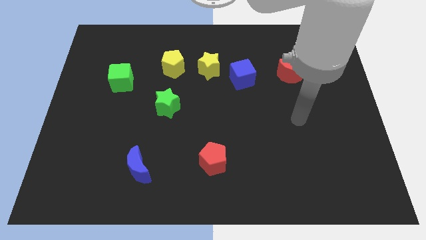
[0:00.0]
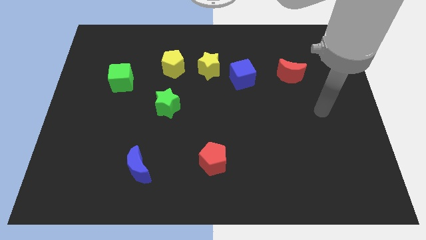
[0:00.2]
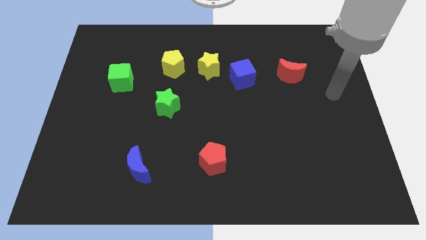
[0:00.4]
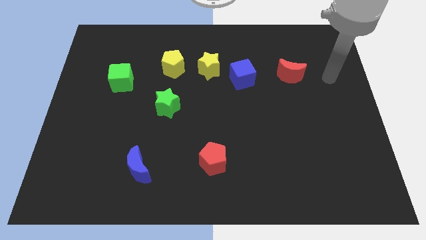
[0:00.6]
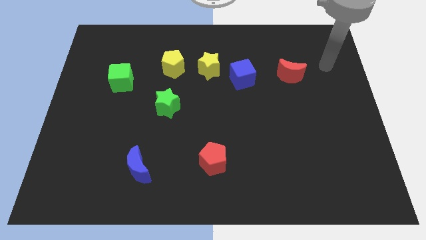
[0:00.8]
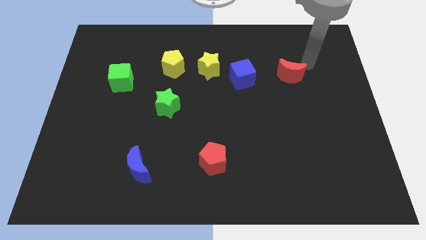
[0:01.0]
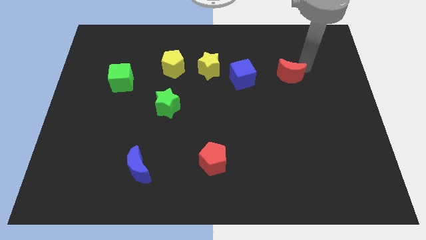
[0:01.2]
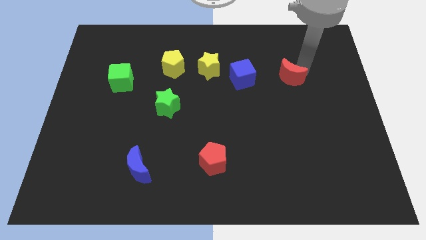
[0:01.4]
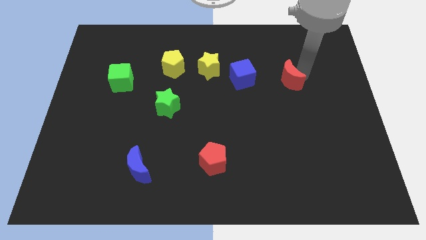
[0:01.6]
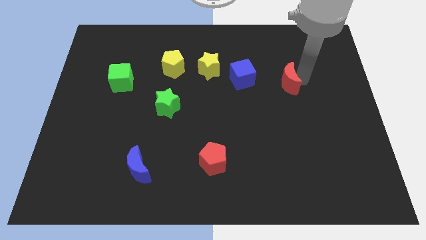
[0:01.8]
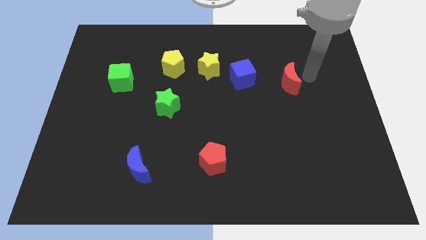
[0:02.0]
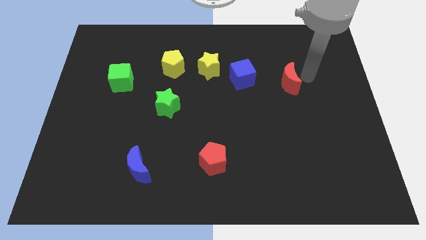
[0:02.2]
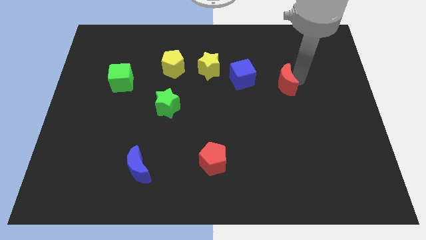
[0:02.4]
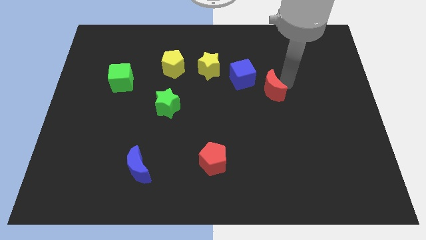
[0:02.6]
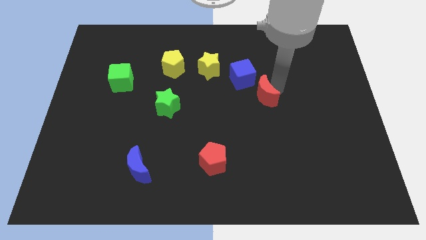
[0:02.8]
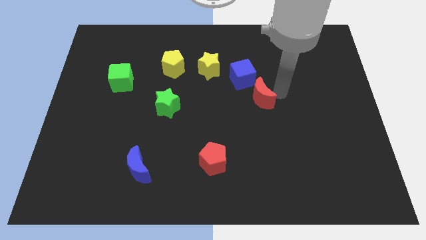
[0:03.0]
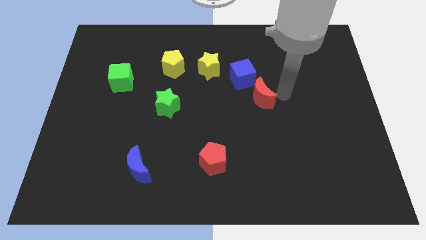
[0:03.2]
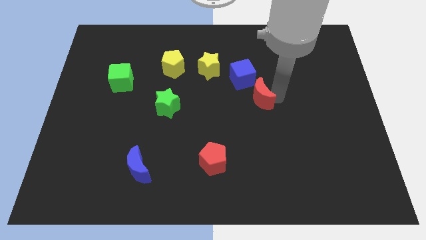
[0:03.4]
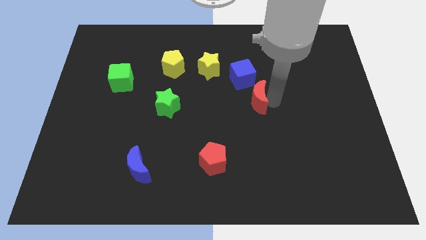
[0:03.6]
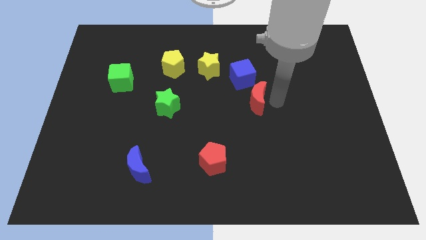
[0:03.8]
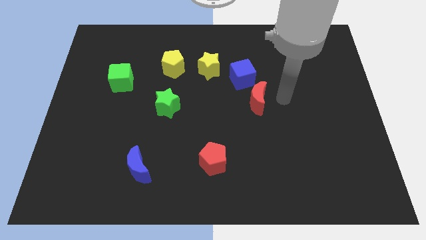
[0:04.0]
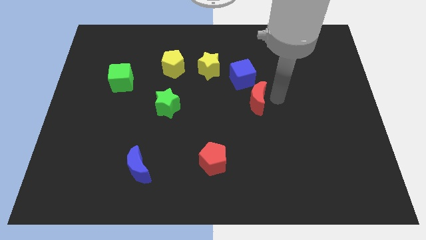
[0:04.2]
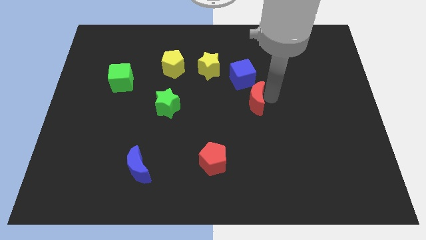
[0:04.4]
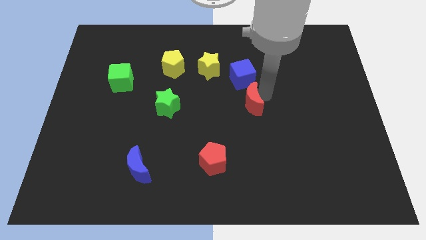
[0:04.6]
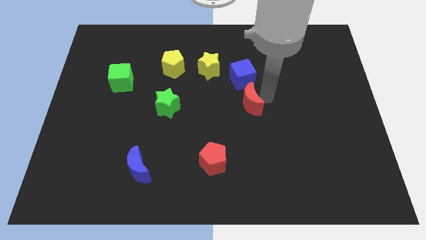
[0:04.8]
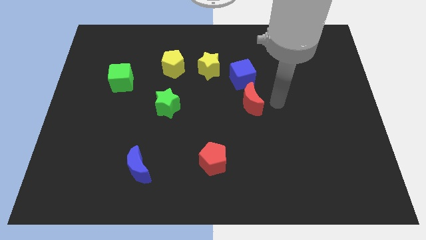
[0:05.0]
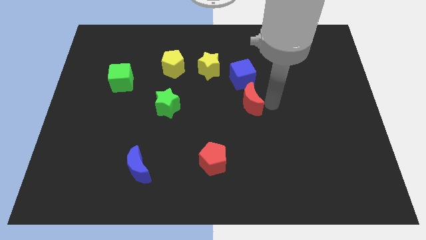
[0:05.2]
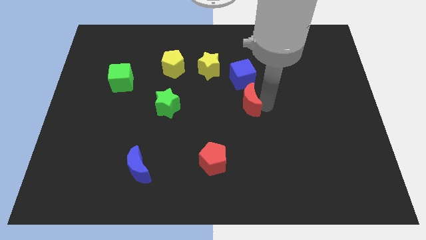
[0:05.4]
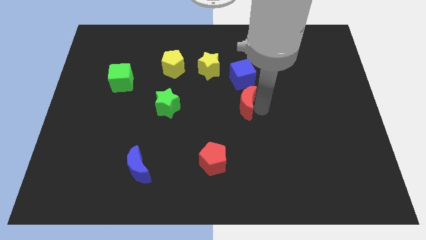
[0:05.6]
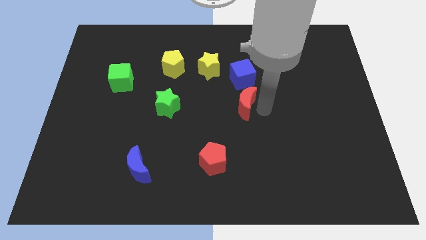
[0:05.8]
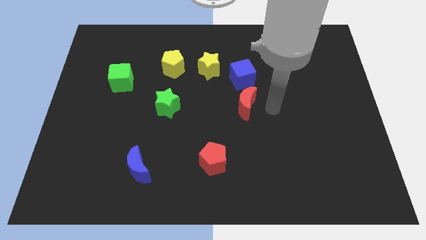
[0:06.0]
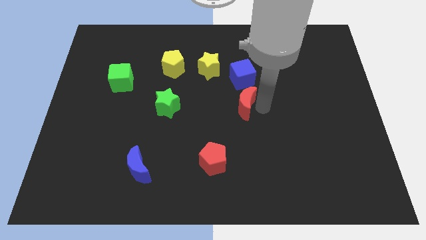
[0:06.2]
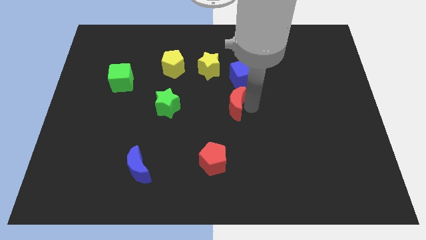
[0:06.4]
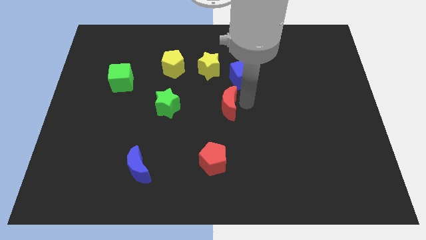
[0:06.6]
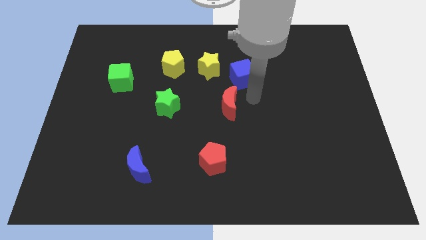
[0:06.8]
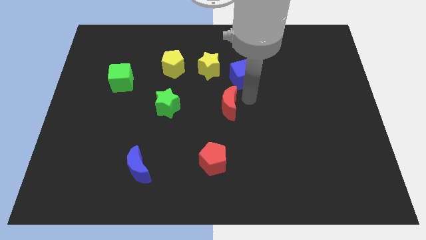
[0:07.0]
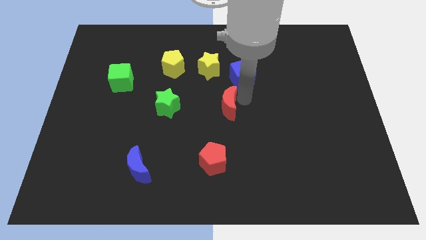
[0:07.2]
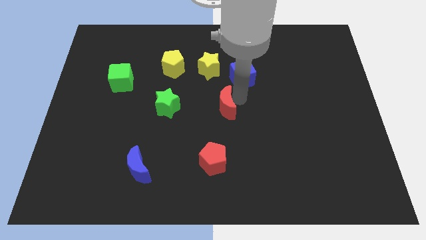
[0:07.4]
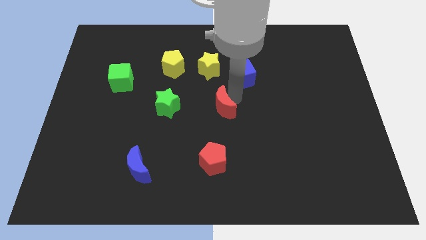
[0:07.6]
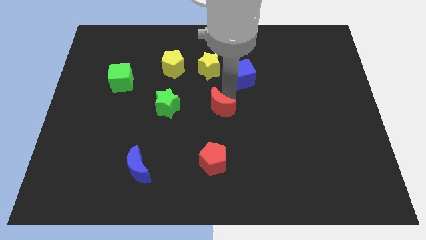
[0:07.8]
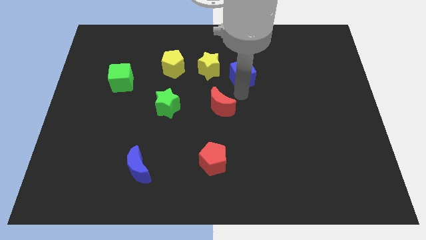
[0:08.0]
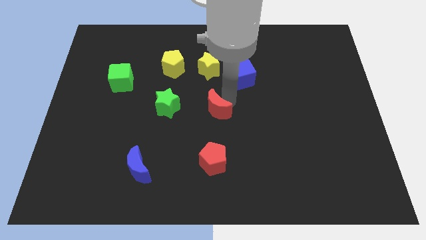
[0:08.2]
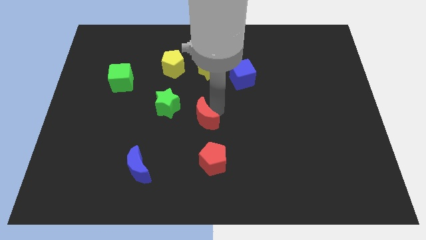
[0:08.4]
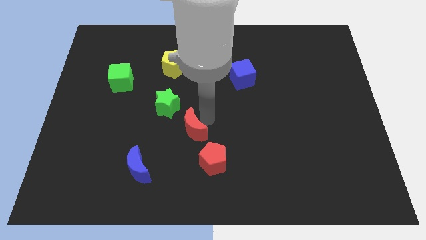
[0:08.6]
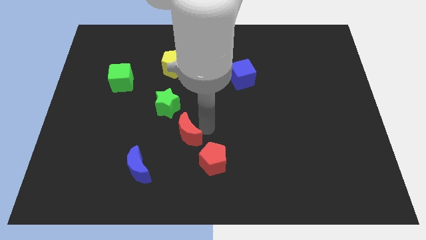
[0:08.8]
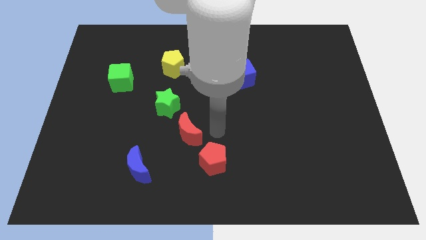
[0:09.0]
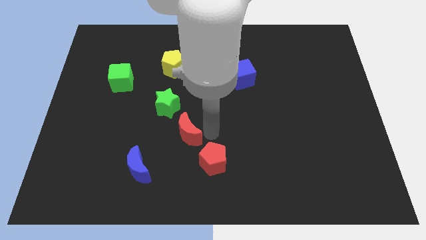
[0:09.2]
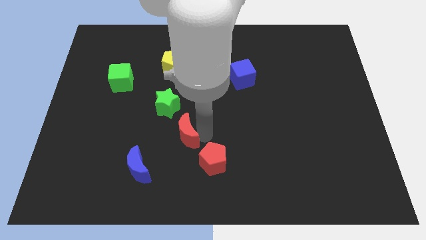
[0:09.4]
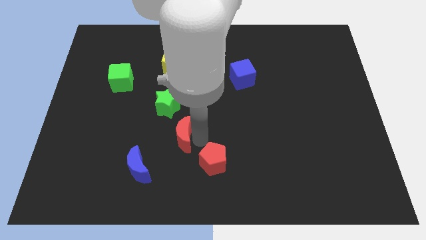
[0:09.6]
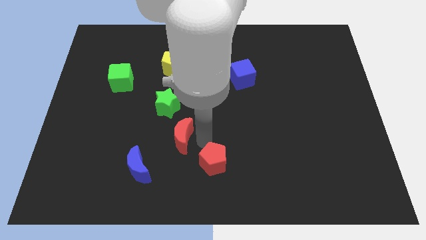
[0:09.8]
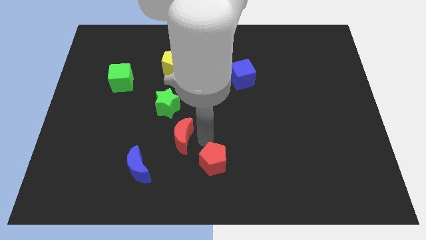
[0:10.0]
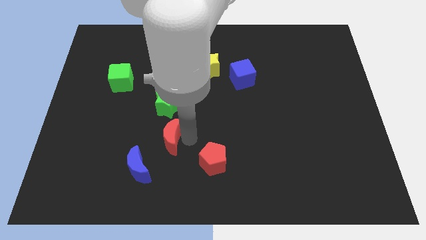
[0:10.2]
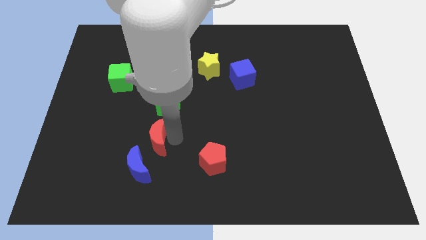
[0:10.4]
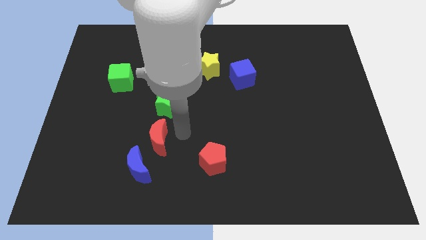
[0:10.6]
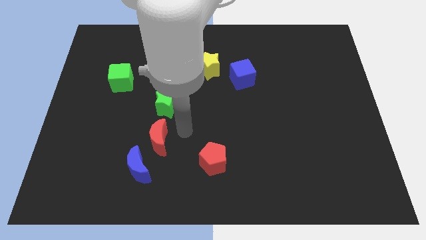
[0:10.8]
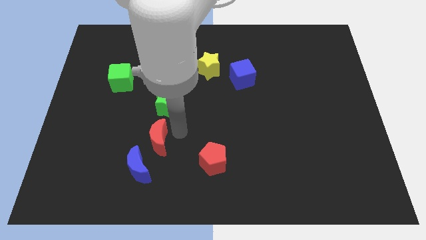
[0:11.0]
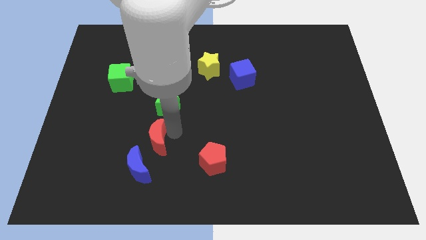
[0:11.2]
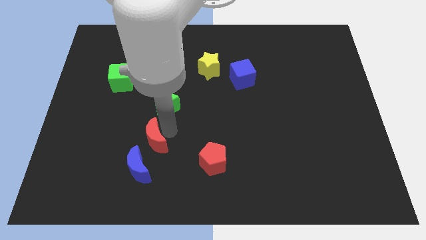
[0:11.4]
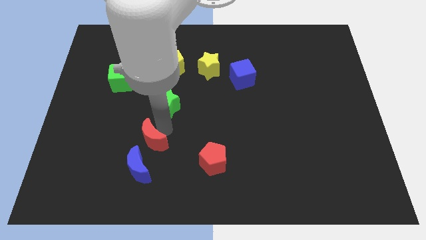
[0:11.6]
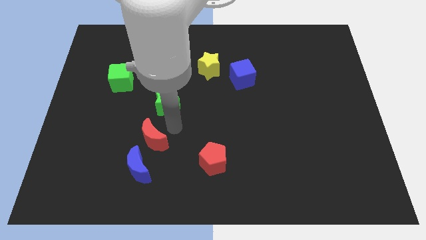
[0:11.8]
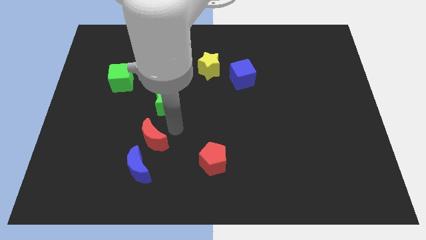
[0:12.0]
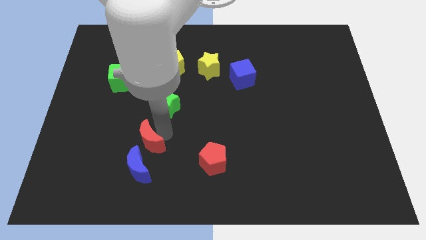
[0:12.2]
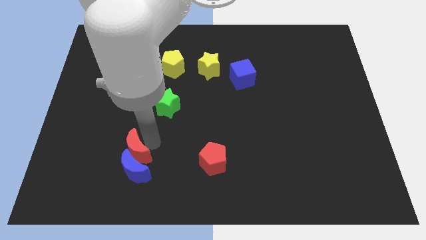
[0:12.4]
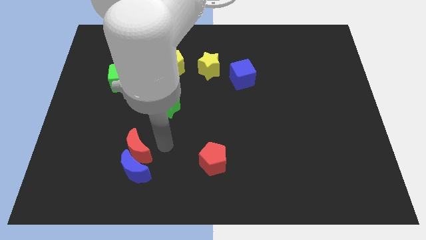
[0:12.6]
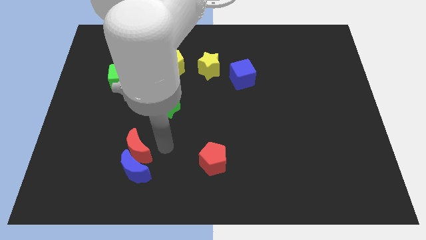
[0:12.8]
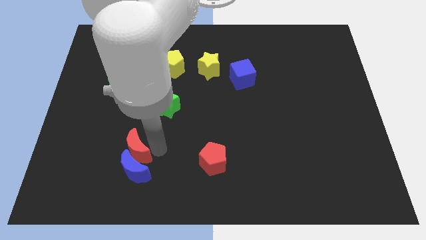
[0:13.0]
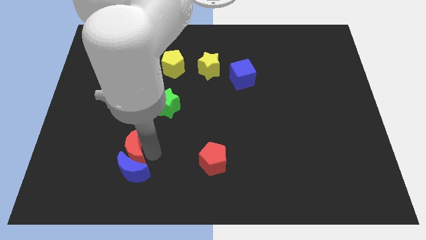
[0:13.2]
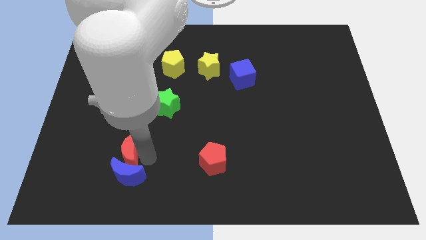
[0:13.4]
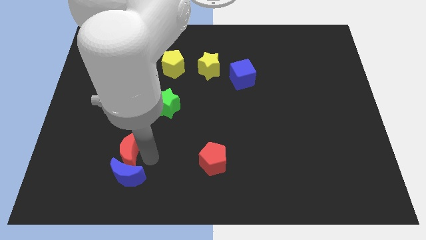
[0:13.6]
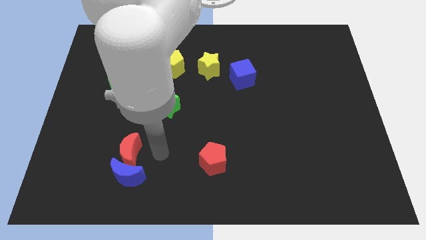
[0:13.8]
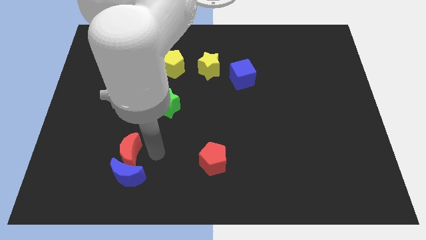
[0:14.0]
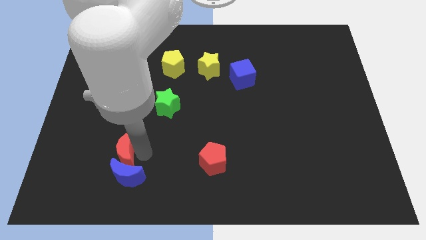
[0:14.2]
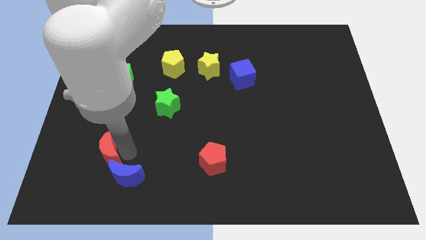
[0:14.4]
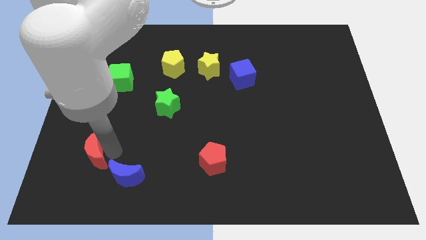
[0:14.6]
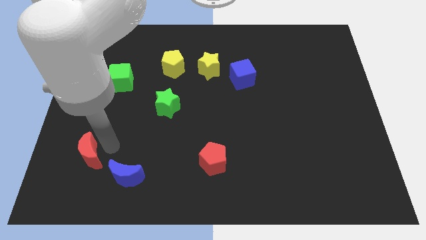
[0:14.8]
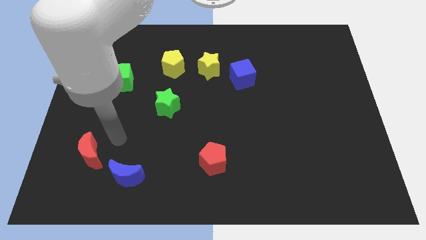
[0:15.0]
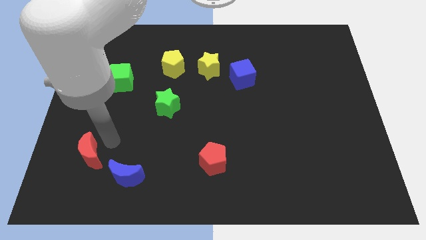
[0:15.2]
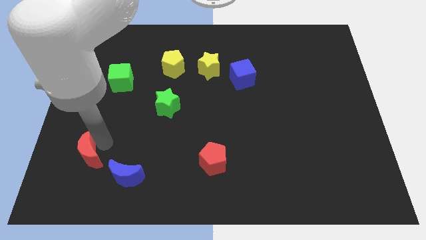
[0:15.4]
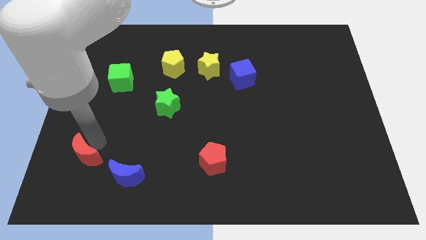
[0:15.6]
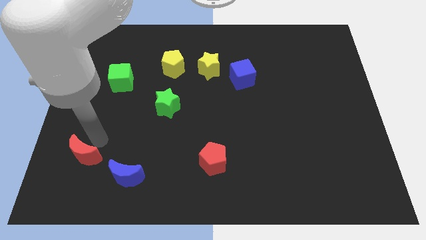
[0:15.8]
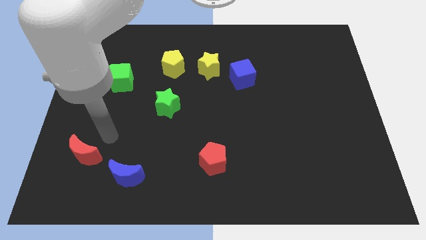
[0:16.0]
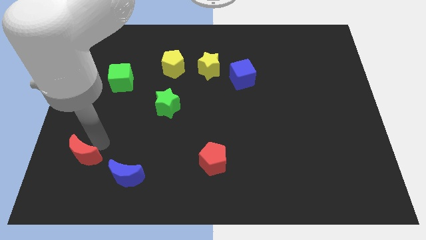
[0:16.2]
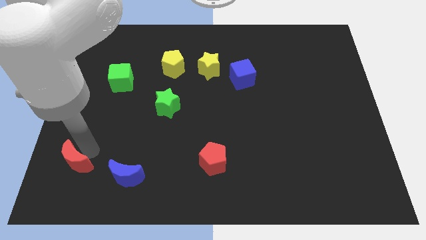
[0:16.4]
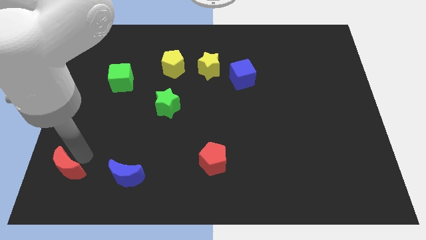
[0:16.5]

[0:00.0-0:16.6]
put the red moon to the bottom left of the board
